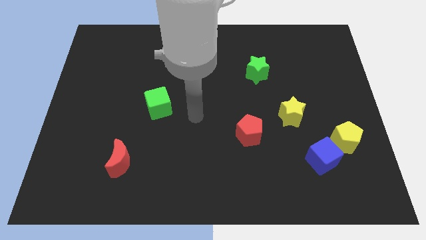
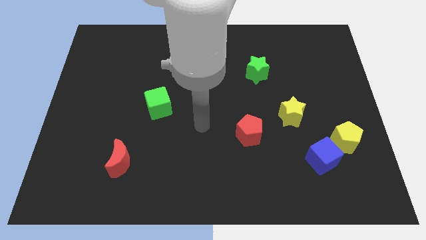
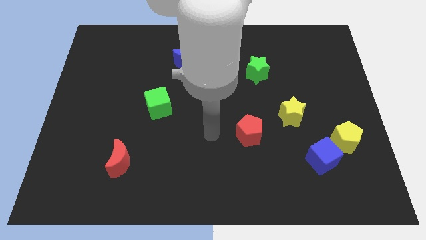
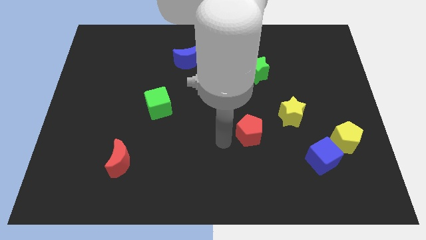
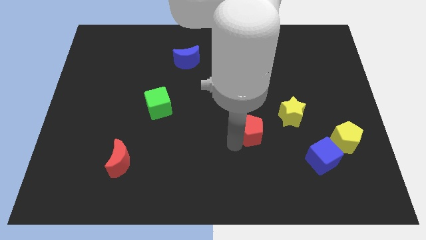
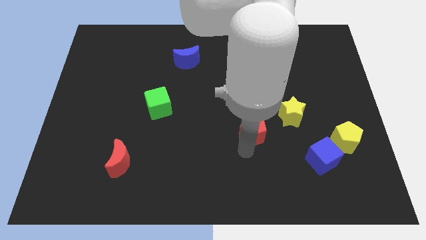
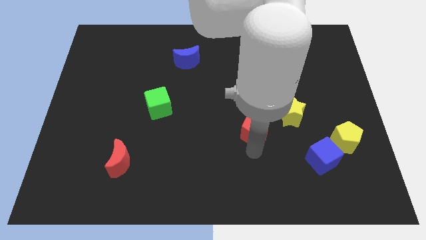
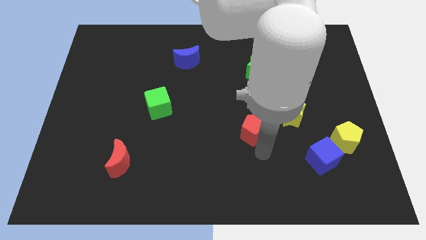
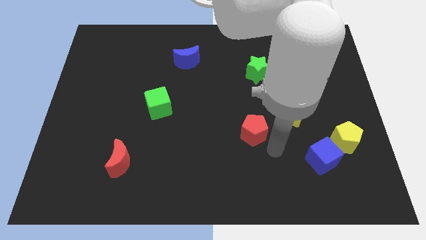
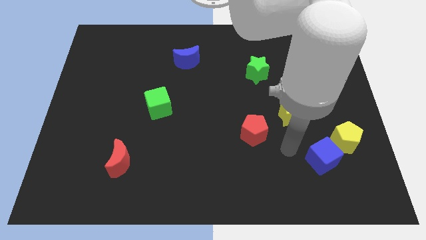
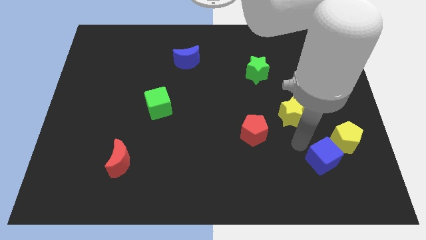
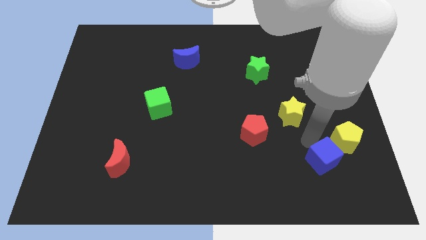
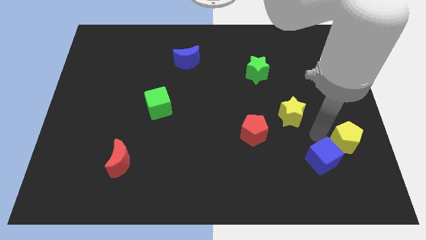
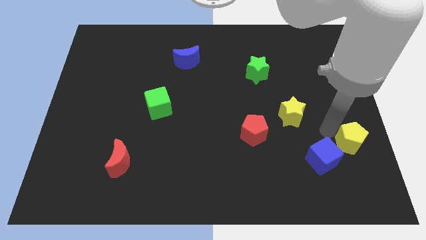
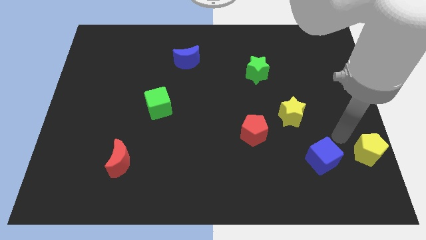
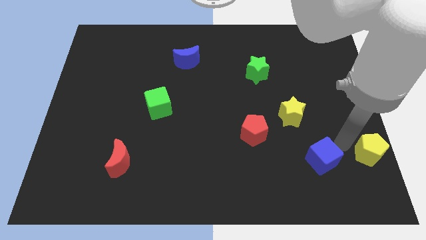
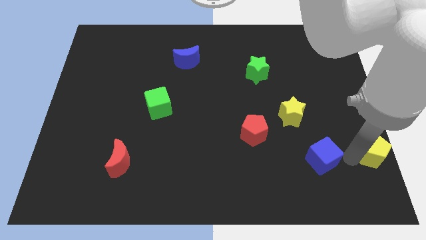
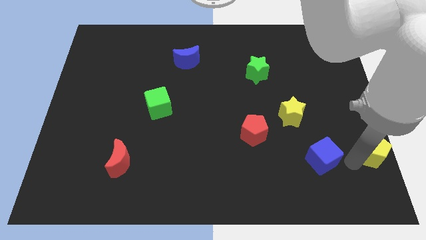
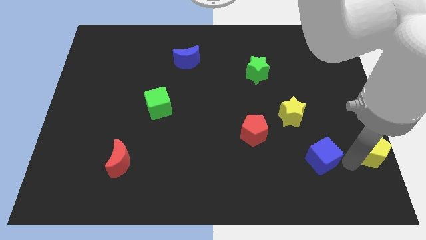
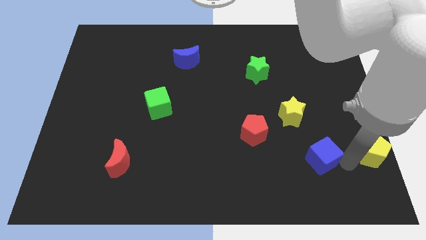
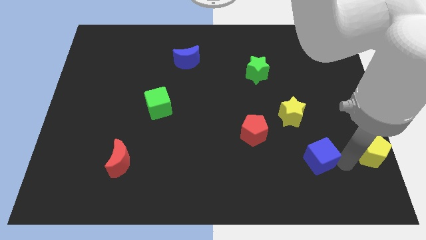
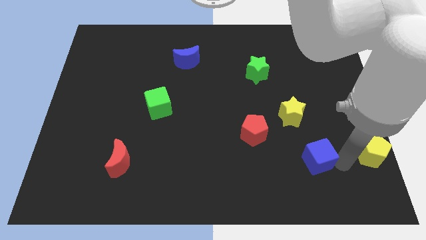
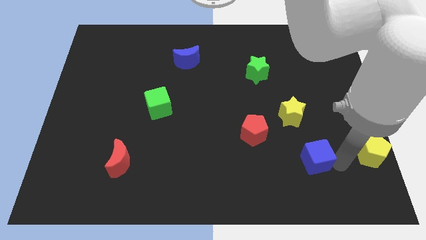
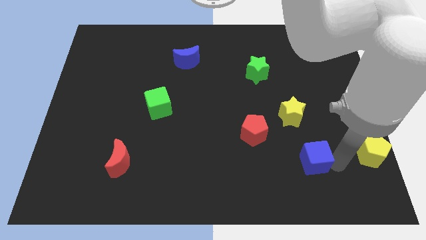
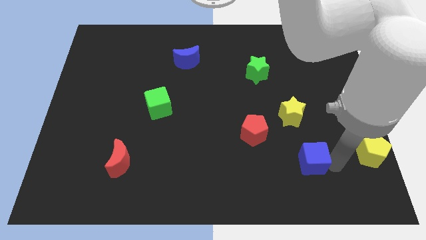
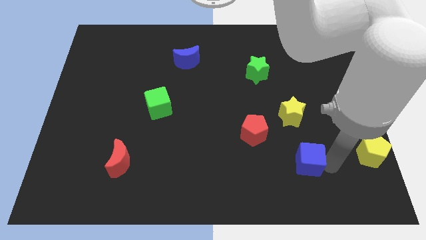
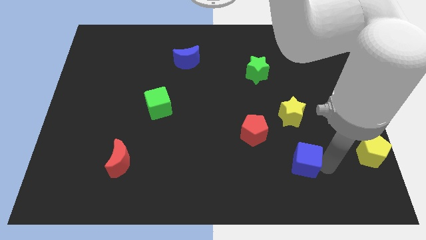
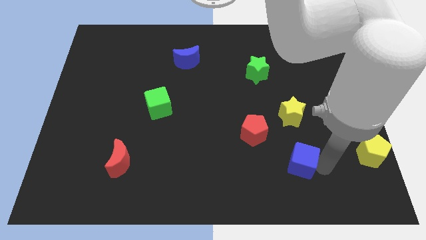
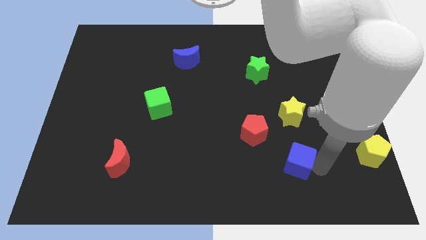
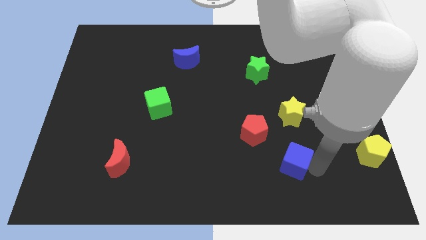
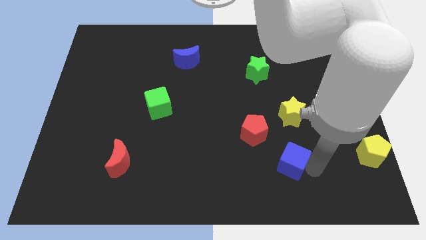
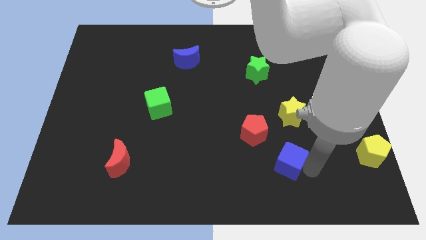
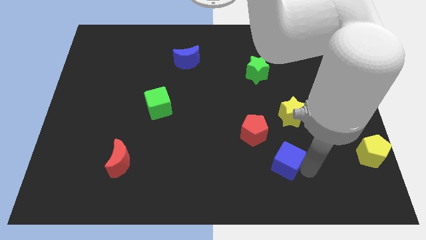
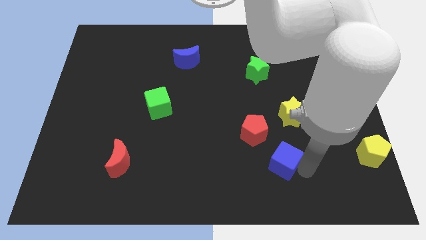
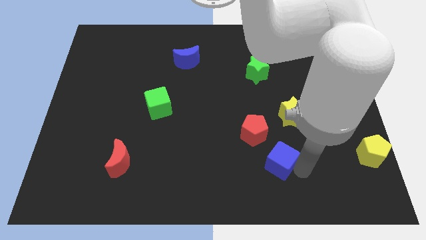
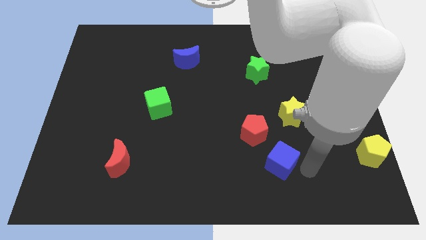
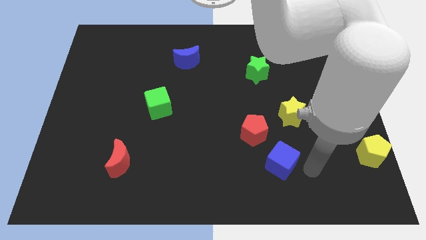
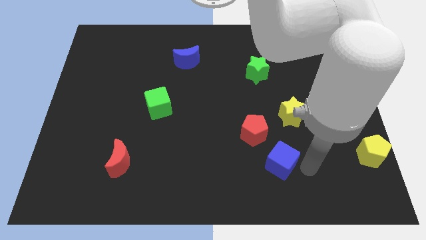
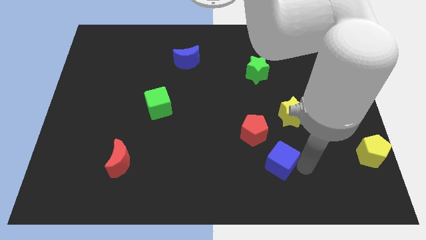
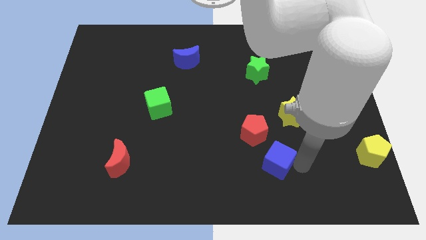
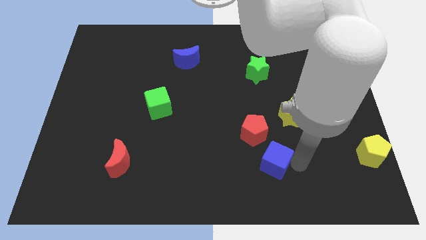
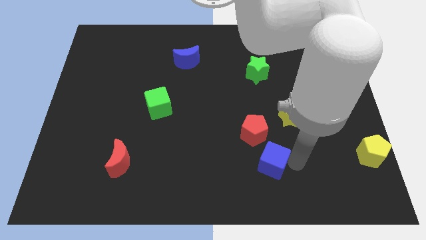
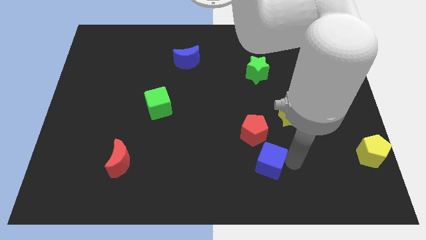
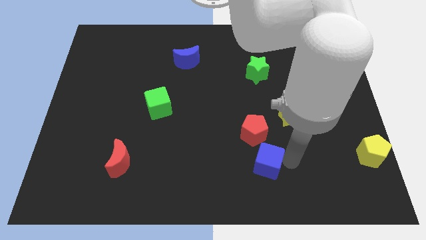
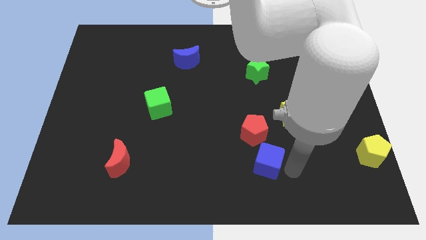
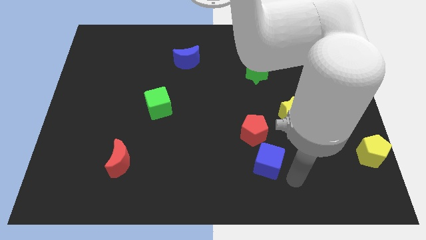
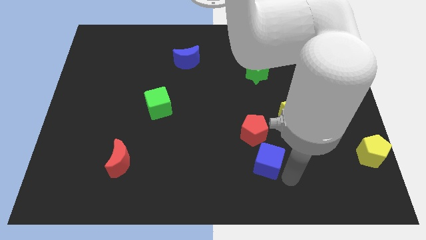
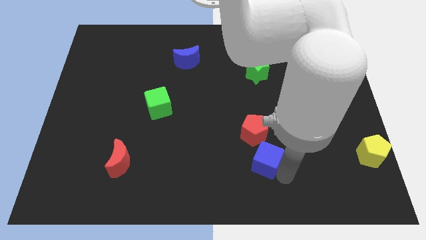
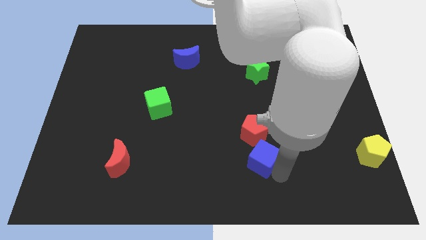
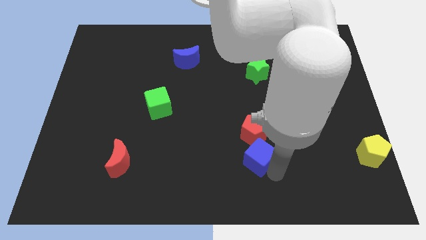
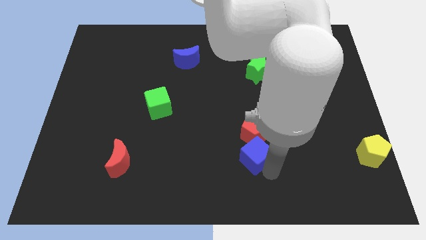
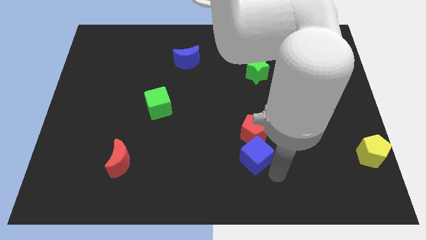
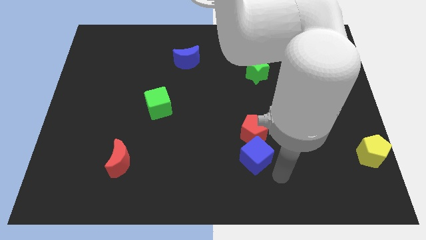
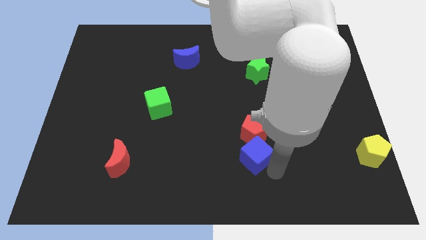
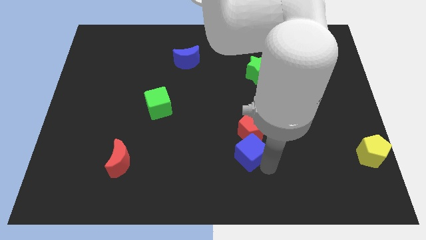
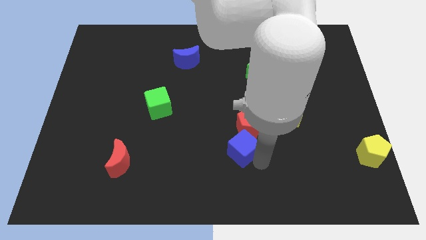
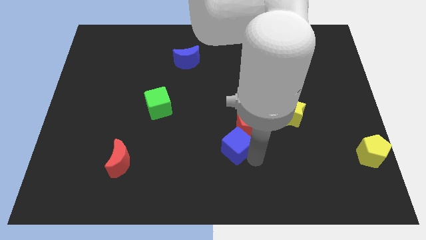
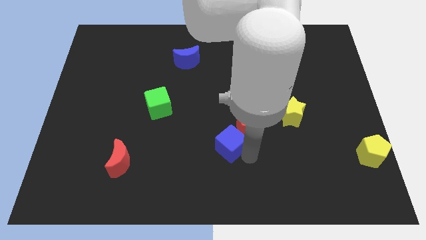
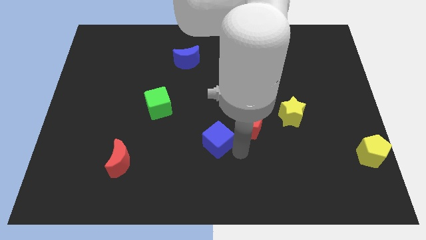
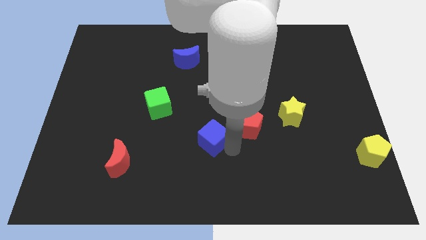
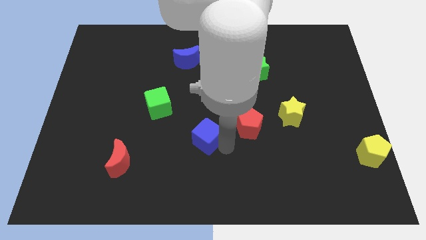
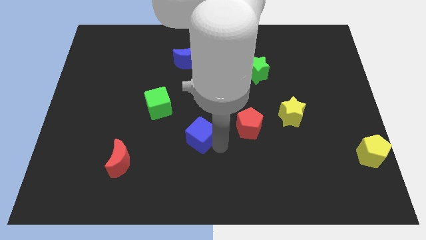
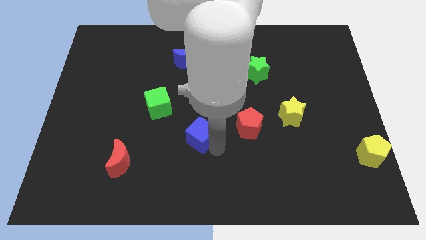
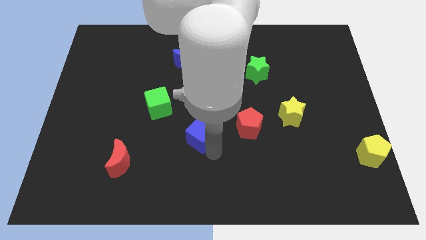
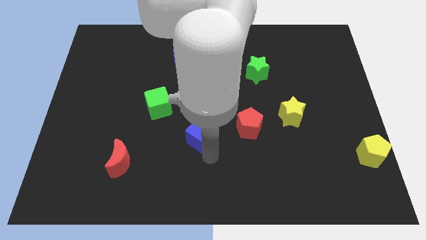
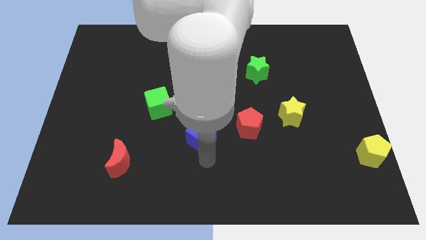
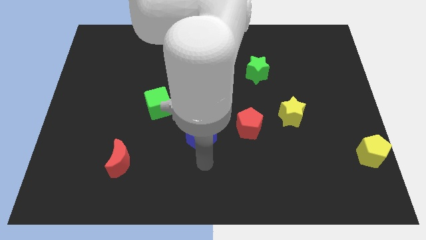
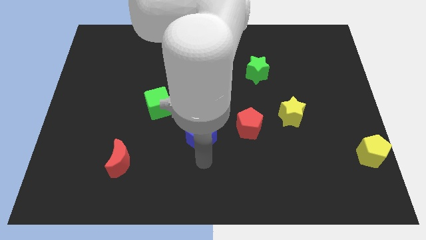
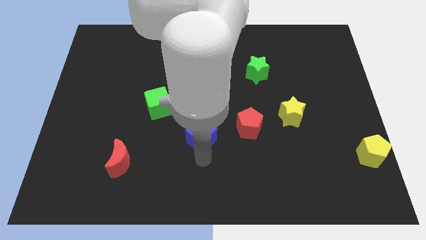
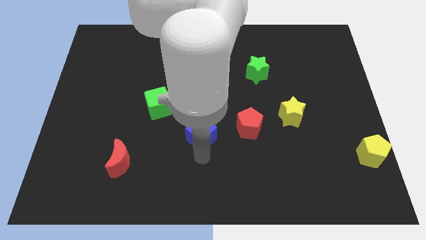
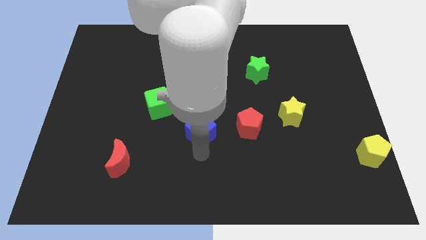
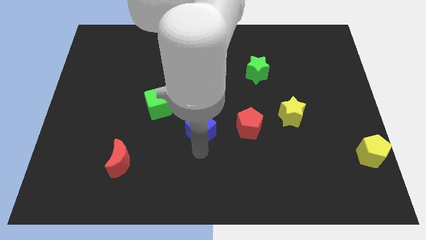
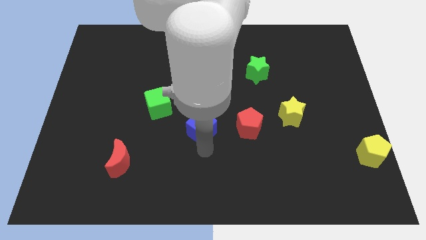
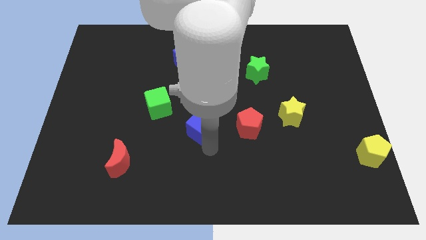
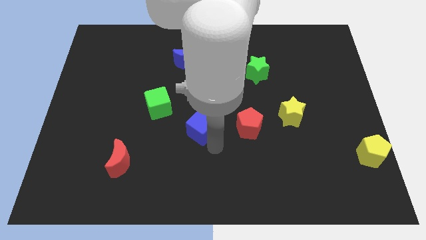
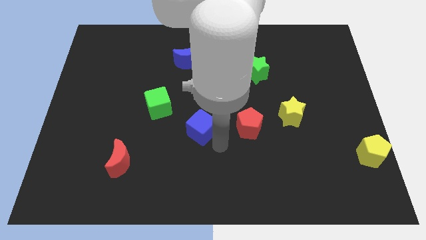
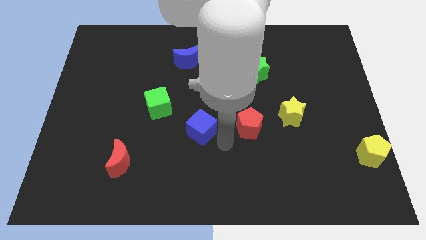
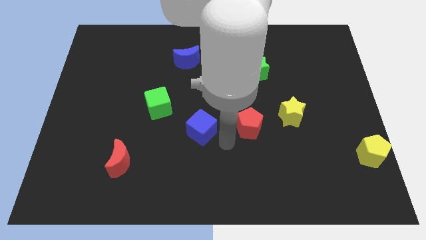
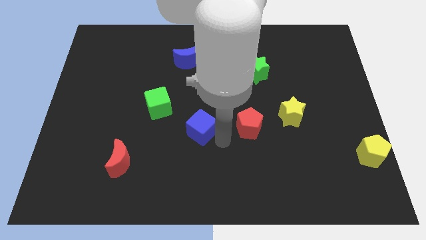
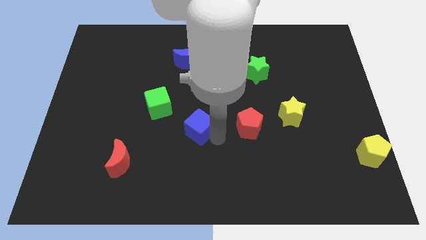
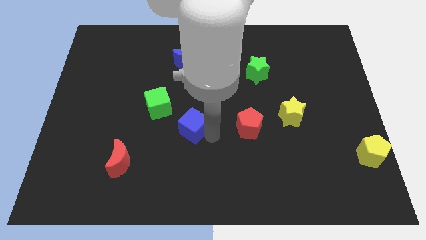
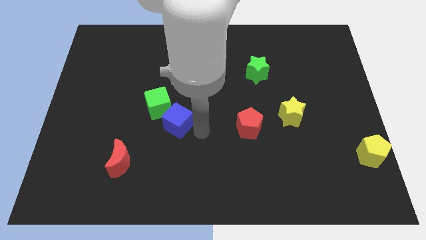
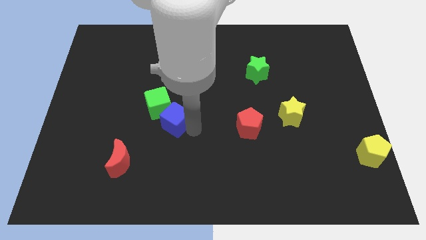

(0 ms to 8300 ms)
put the blue cube towards the green cube
